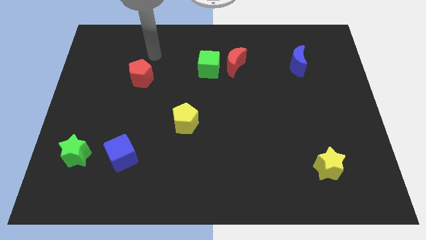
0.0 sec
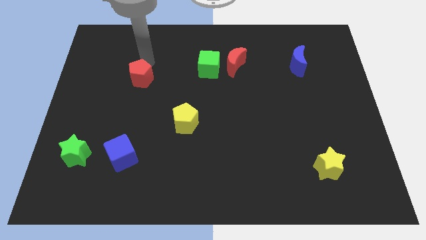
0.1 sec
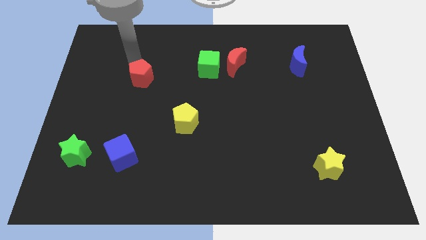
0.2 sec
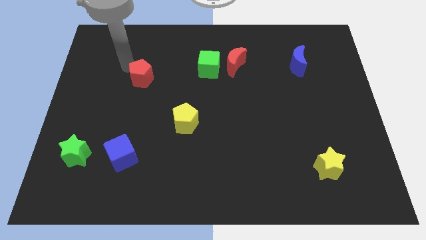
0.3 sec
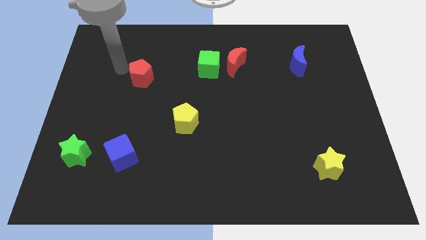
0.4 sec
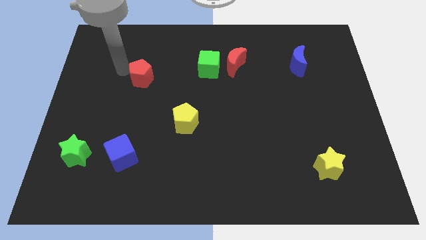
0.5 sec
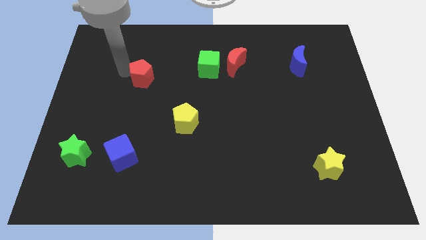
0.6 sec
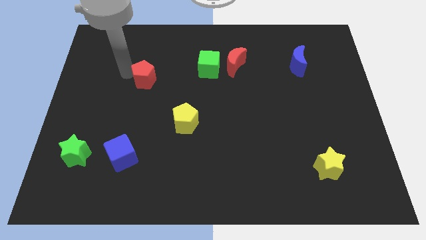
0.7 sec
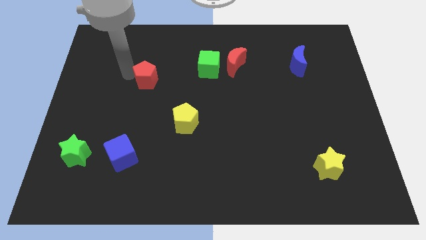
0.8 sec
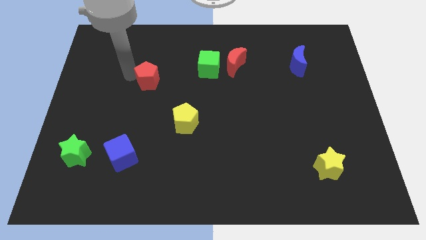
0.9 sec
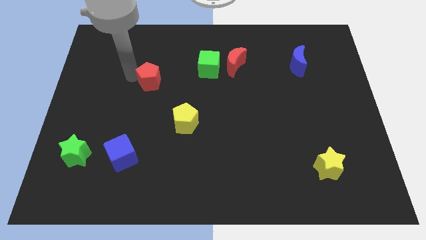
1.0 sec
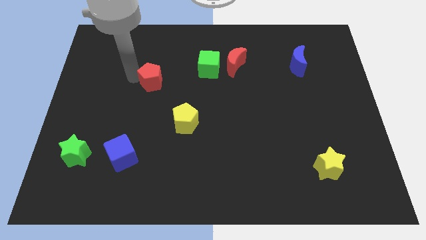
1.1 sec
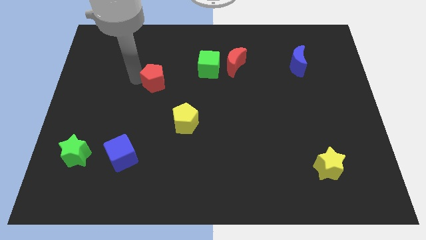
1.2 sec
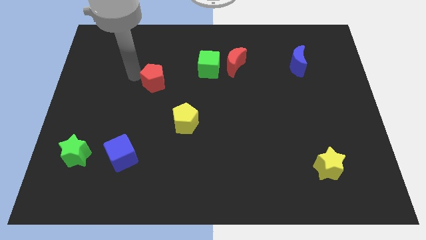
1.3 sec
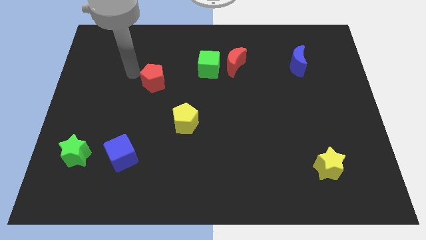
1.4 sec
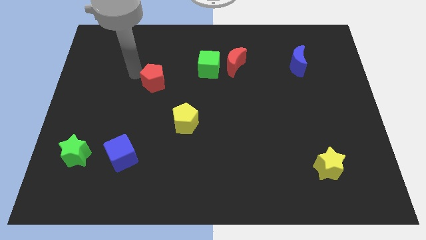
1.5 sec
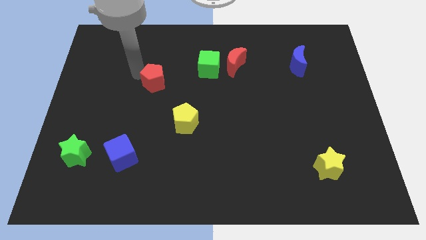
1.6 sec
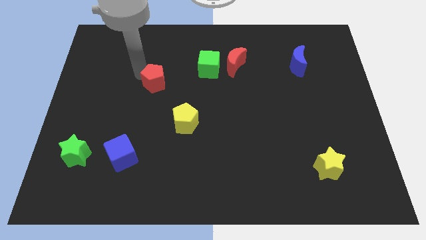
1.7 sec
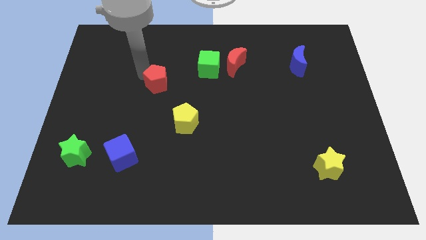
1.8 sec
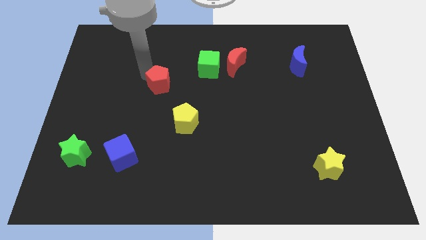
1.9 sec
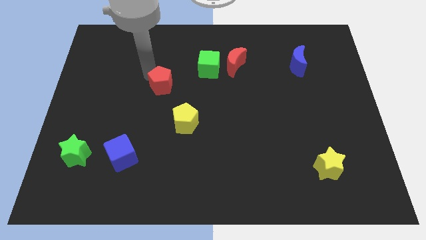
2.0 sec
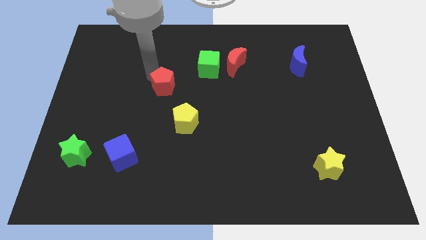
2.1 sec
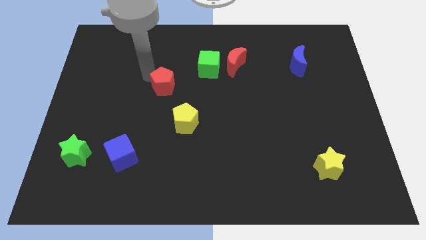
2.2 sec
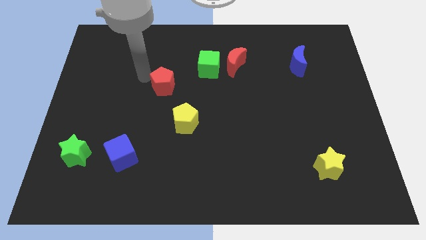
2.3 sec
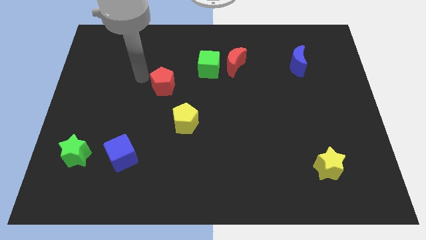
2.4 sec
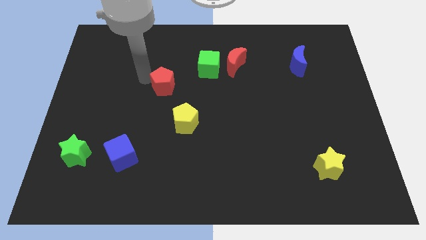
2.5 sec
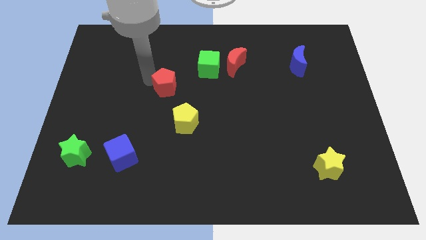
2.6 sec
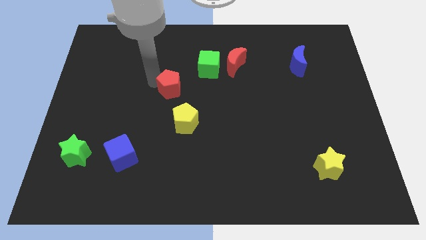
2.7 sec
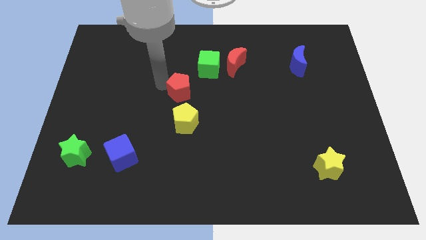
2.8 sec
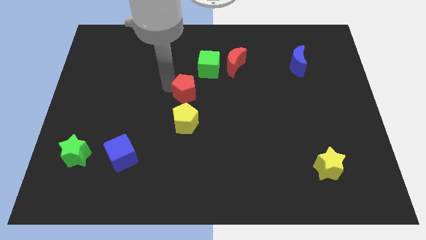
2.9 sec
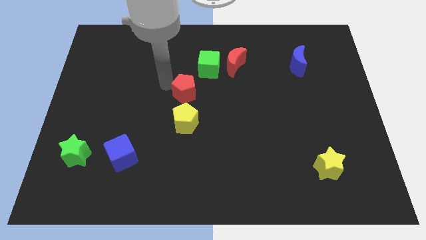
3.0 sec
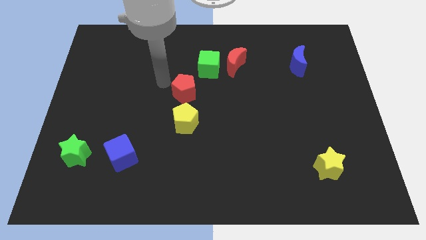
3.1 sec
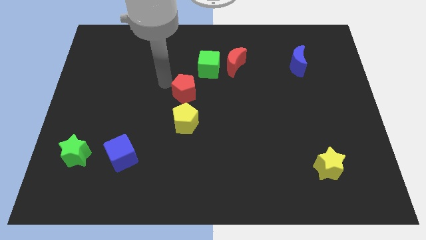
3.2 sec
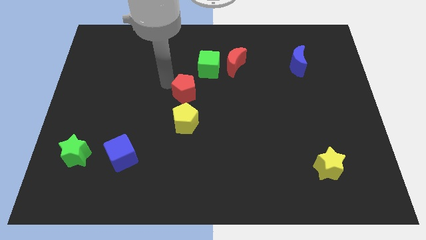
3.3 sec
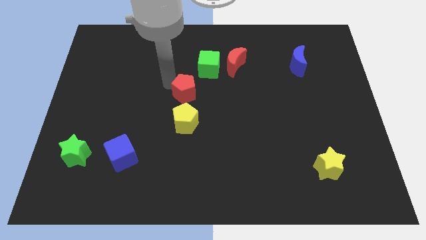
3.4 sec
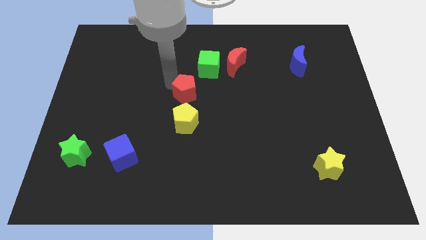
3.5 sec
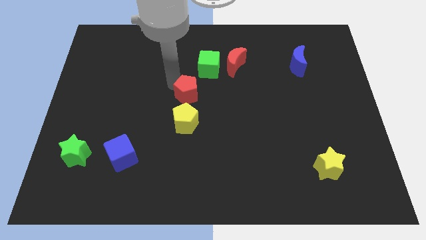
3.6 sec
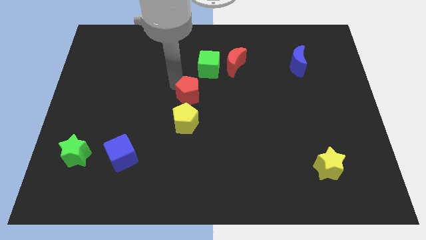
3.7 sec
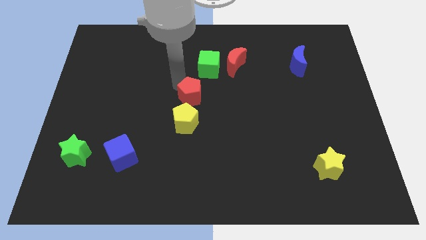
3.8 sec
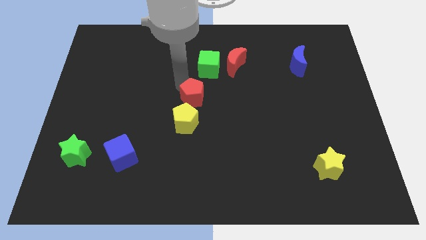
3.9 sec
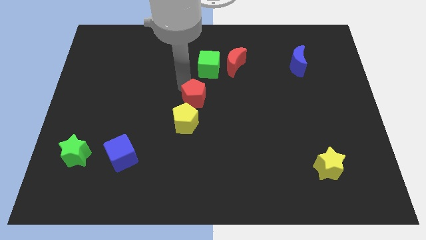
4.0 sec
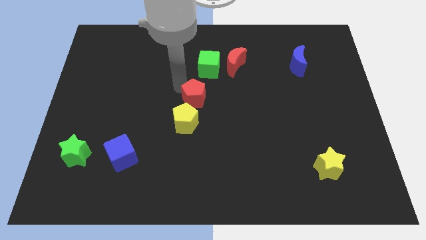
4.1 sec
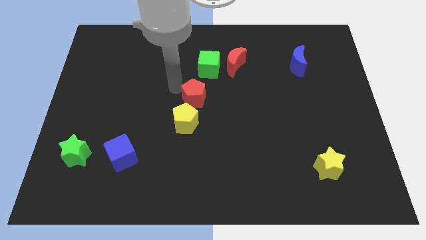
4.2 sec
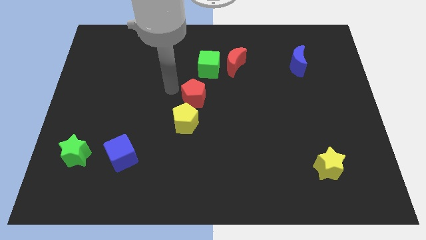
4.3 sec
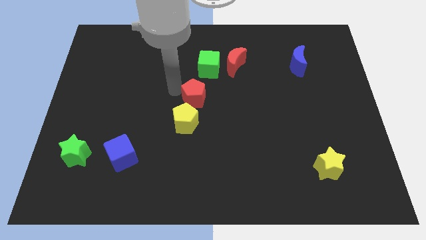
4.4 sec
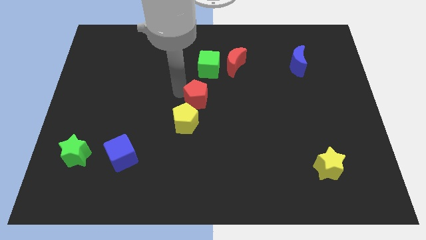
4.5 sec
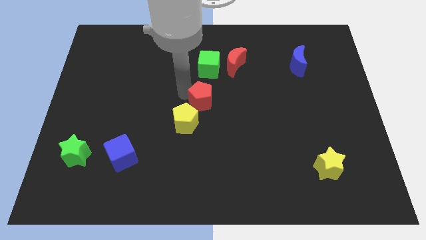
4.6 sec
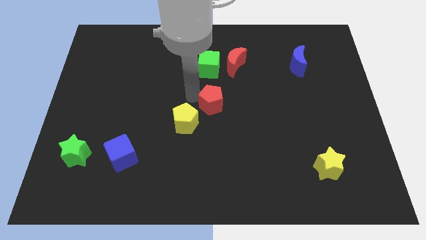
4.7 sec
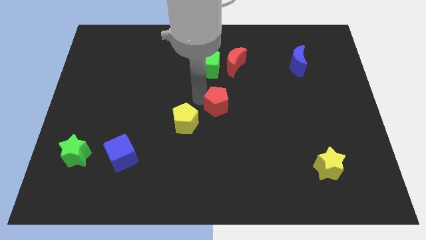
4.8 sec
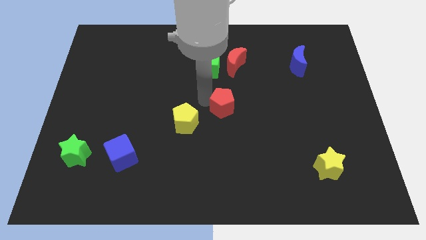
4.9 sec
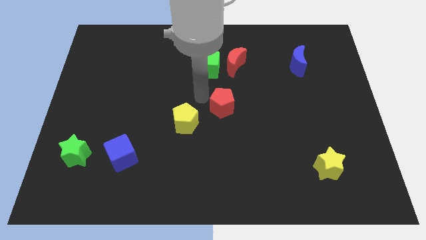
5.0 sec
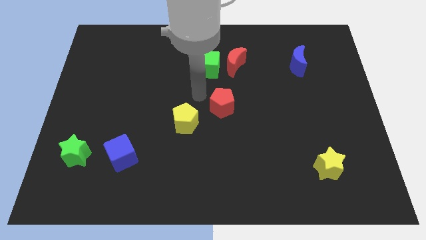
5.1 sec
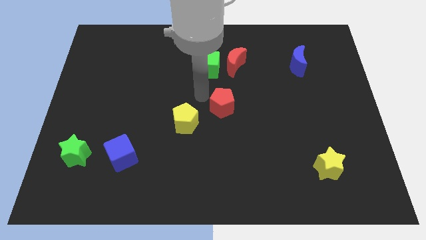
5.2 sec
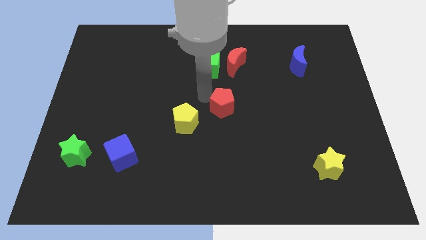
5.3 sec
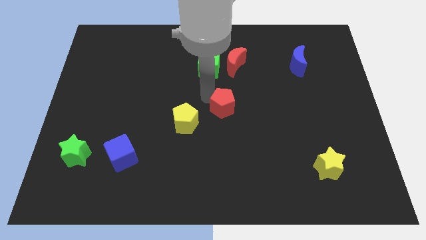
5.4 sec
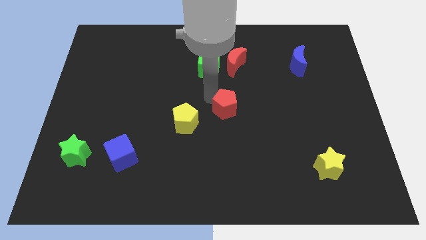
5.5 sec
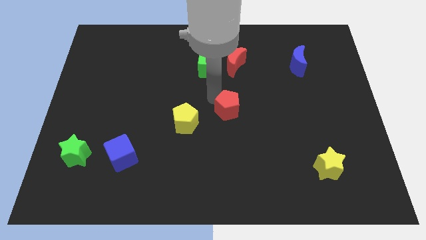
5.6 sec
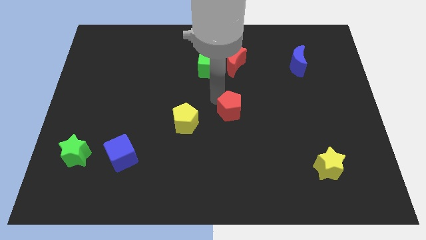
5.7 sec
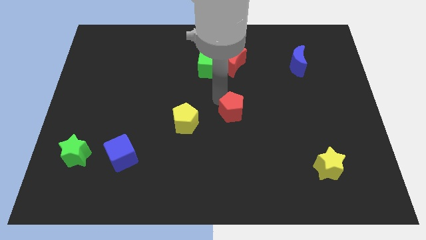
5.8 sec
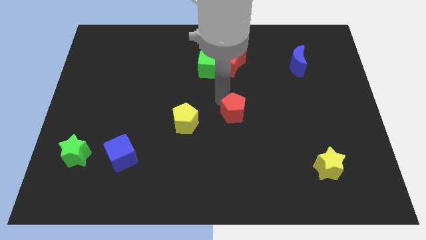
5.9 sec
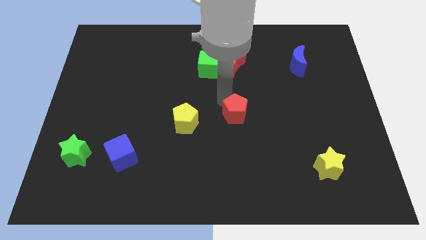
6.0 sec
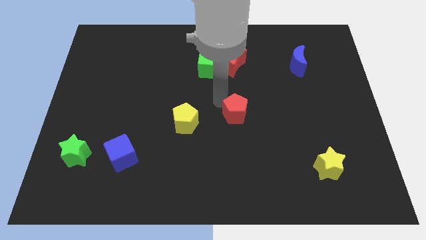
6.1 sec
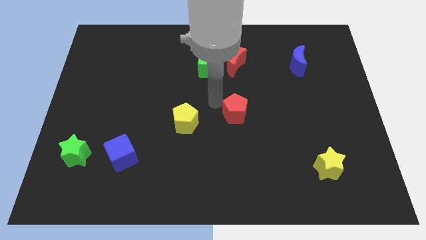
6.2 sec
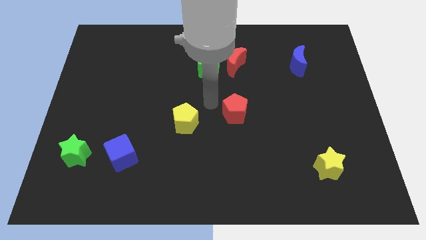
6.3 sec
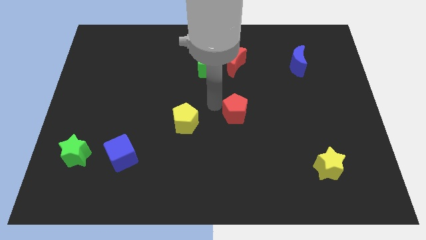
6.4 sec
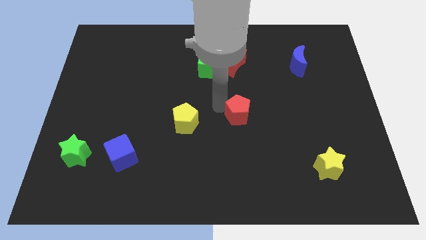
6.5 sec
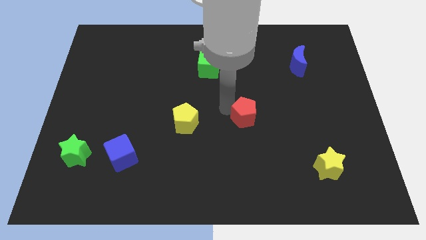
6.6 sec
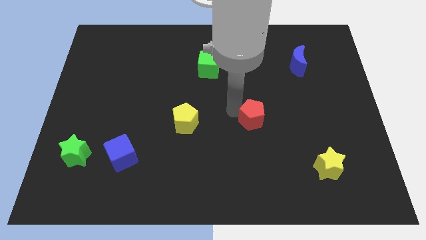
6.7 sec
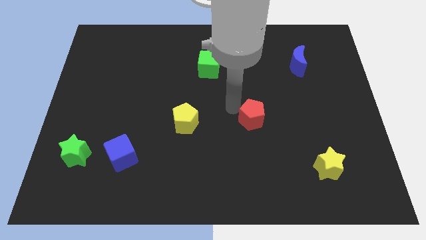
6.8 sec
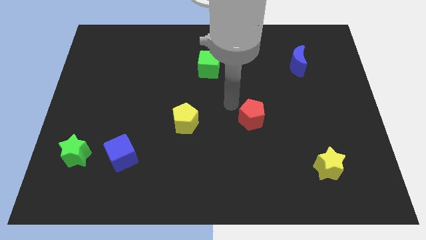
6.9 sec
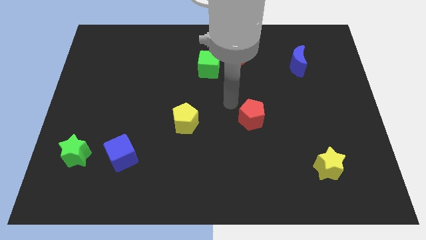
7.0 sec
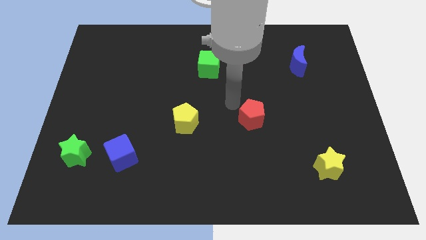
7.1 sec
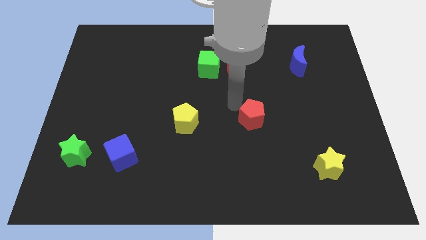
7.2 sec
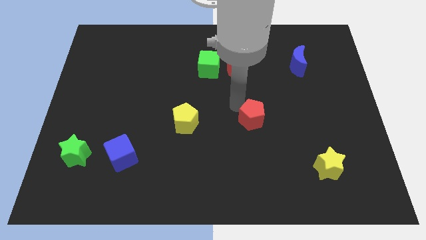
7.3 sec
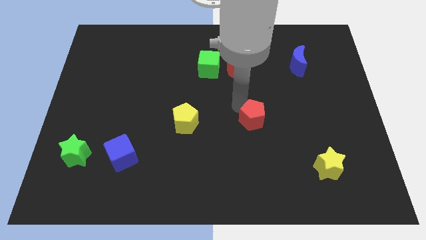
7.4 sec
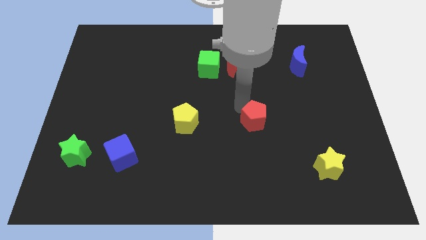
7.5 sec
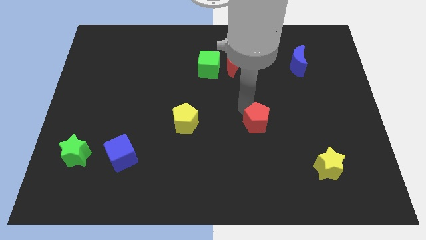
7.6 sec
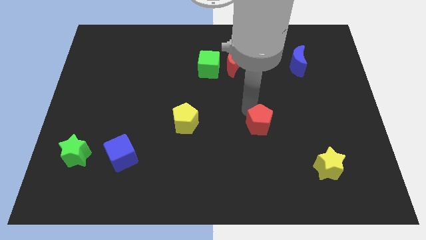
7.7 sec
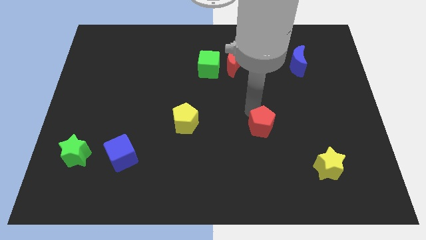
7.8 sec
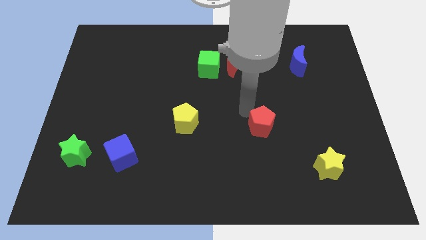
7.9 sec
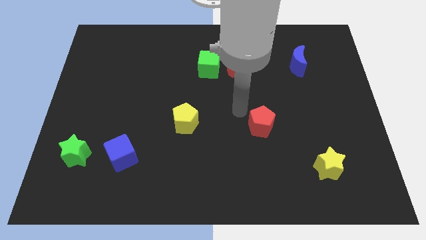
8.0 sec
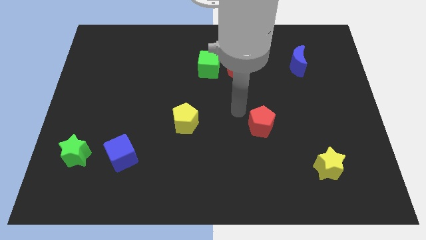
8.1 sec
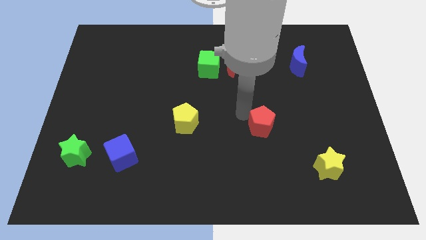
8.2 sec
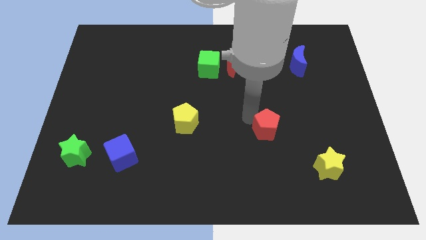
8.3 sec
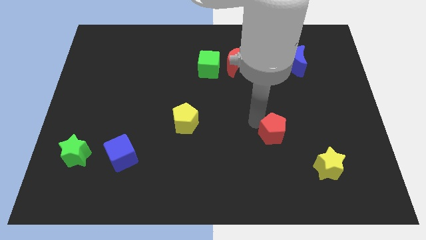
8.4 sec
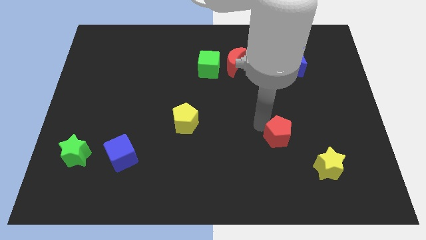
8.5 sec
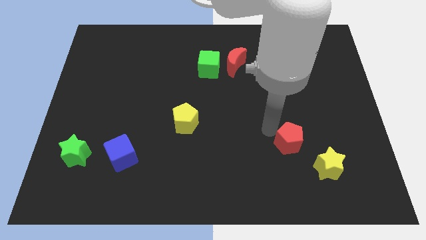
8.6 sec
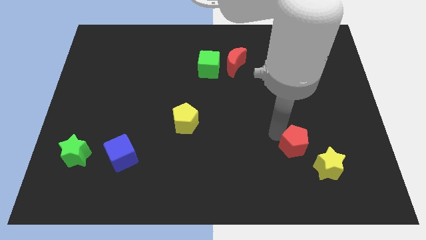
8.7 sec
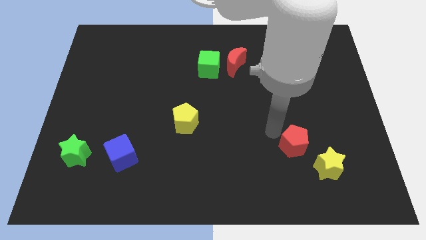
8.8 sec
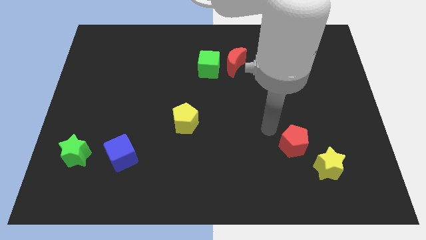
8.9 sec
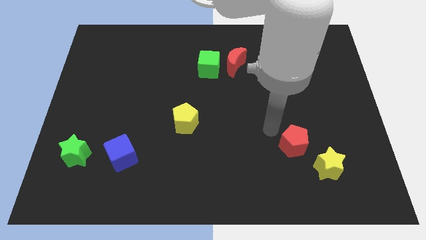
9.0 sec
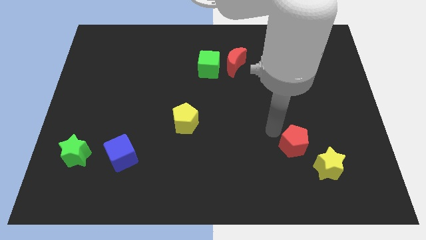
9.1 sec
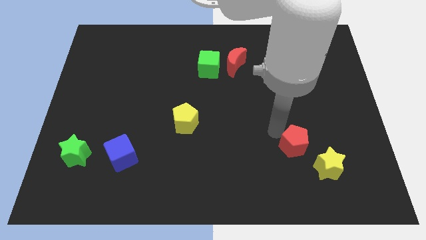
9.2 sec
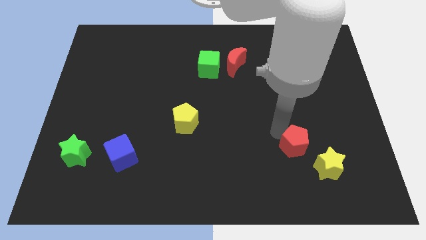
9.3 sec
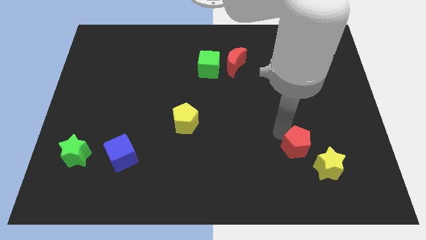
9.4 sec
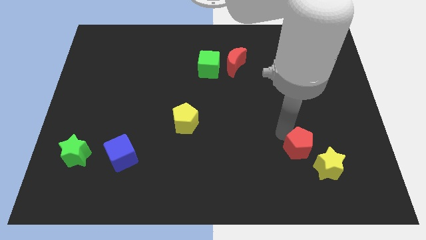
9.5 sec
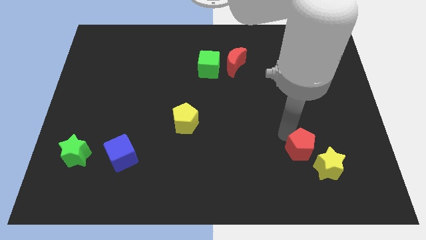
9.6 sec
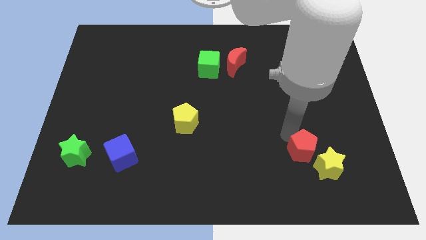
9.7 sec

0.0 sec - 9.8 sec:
move the red pentagon towards the yellow star
